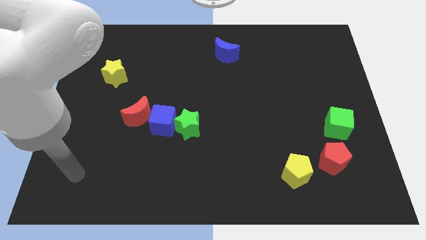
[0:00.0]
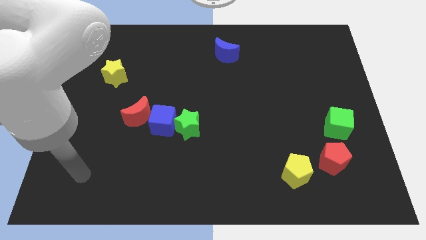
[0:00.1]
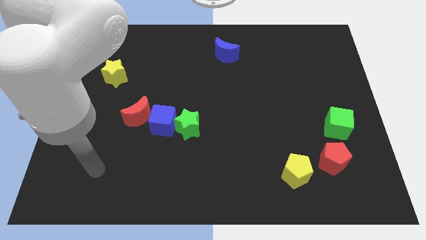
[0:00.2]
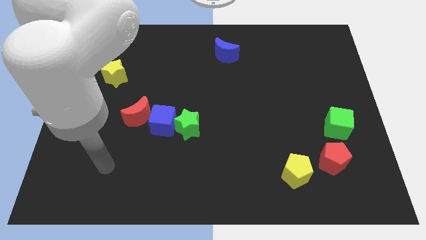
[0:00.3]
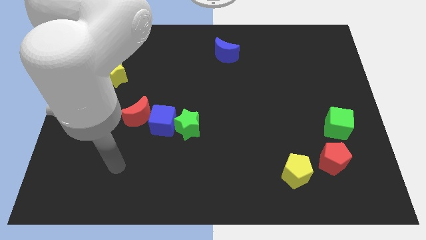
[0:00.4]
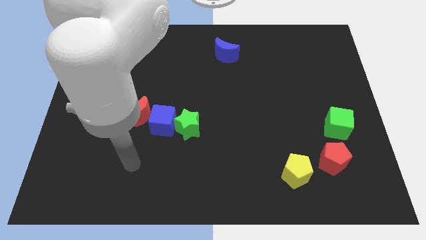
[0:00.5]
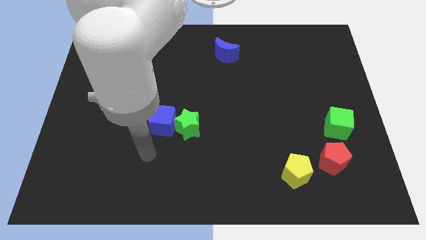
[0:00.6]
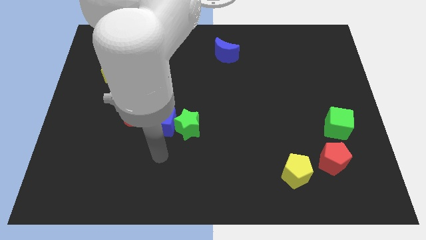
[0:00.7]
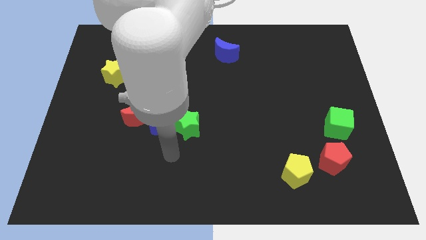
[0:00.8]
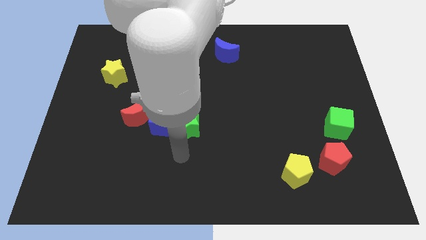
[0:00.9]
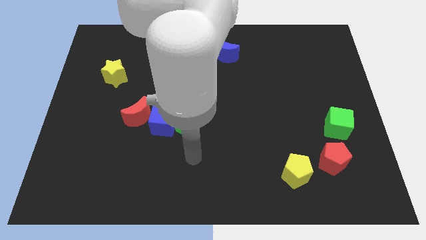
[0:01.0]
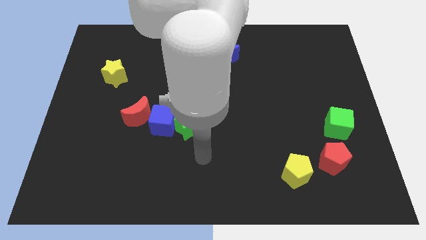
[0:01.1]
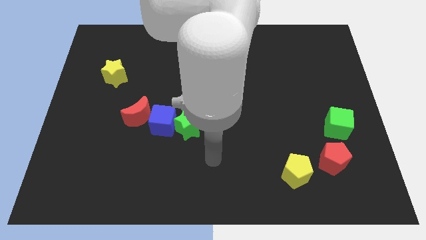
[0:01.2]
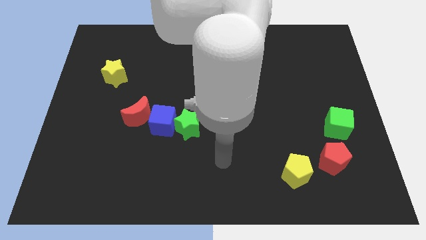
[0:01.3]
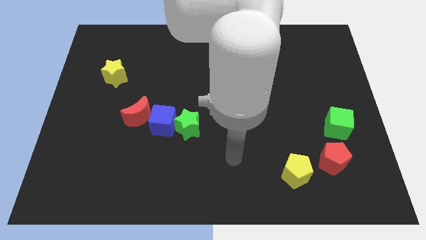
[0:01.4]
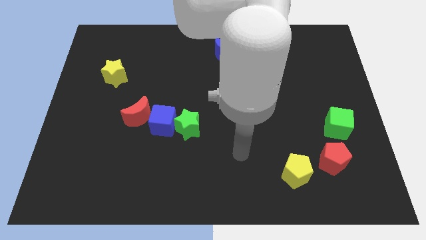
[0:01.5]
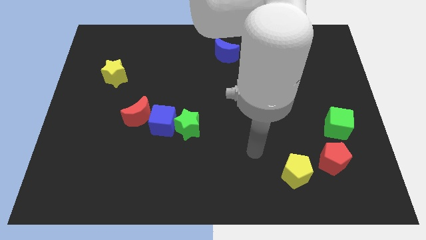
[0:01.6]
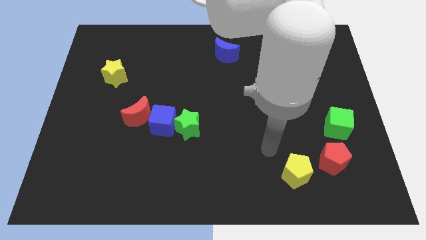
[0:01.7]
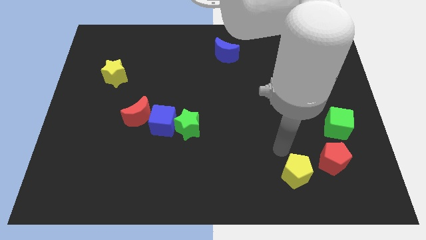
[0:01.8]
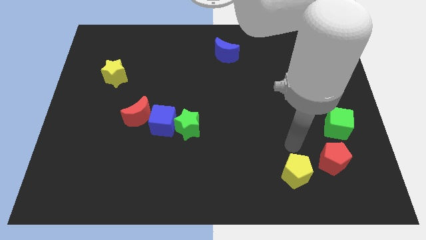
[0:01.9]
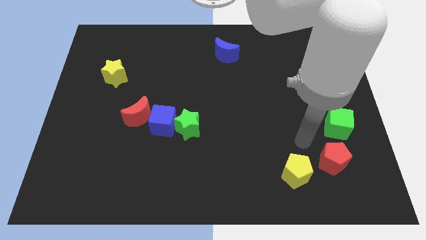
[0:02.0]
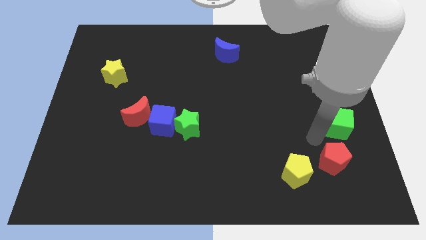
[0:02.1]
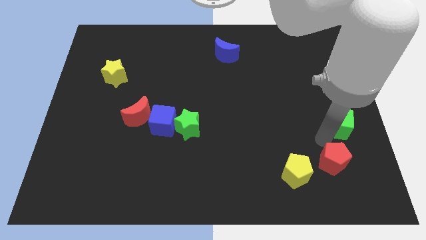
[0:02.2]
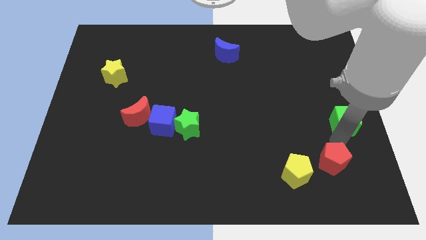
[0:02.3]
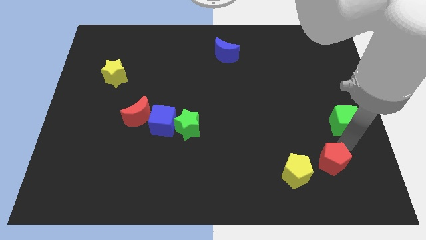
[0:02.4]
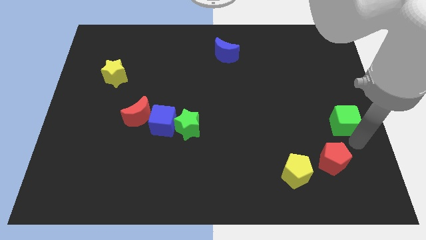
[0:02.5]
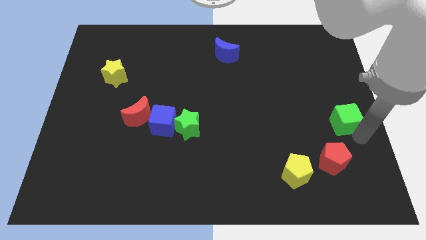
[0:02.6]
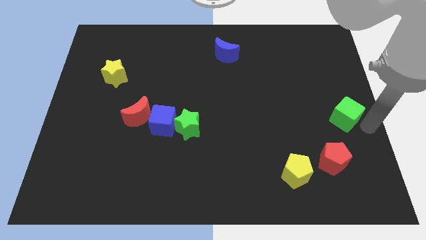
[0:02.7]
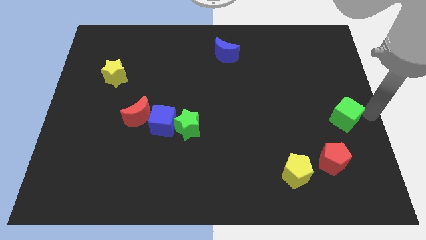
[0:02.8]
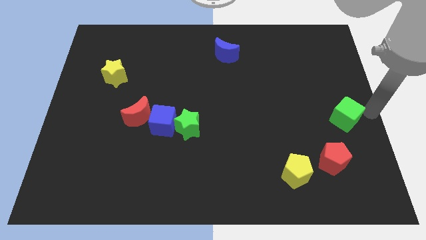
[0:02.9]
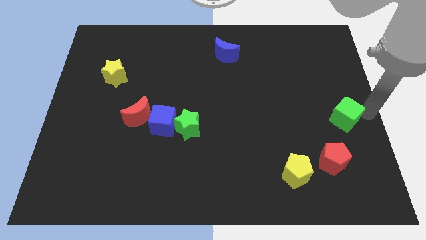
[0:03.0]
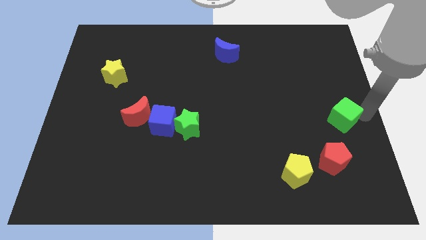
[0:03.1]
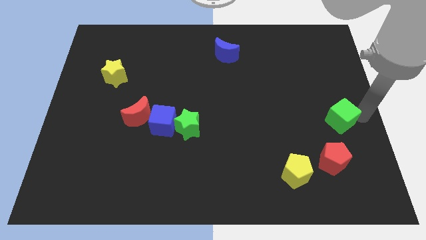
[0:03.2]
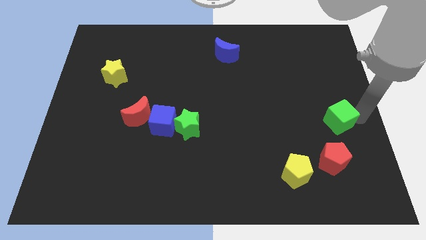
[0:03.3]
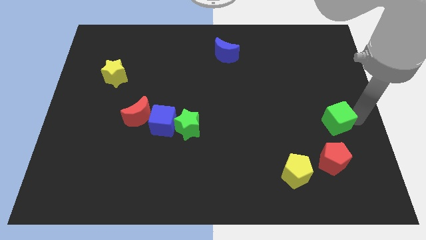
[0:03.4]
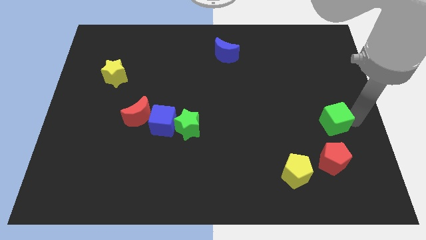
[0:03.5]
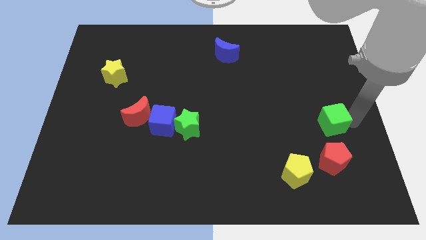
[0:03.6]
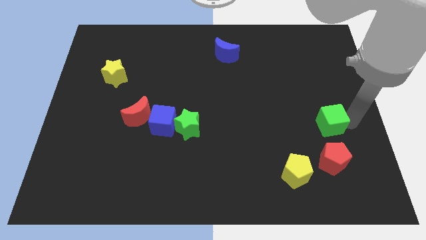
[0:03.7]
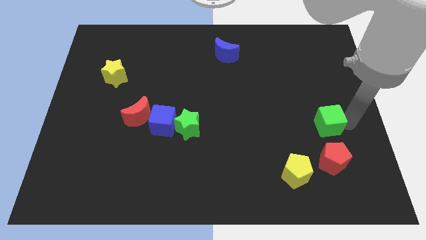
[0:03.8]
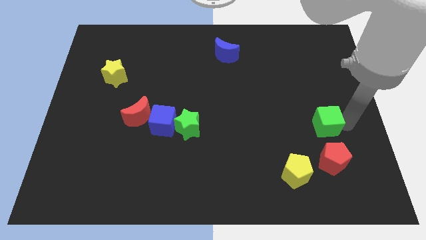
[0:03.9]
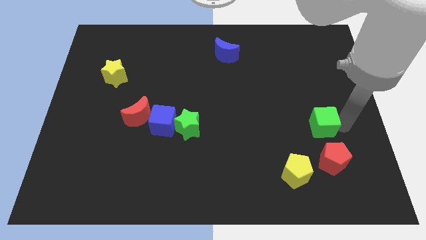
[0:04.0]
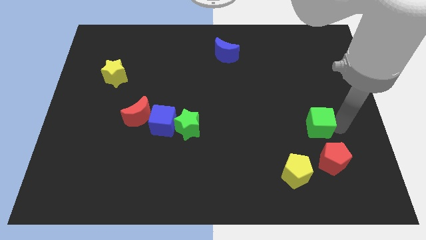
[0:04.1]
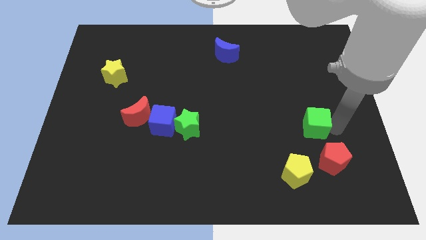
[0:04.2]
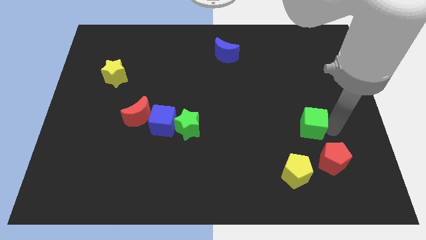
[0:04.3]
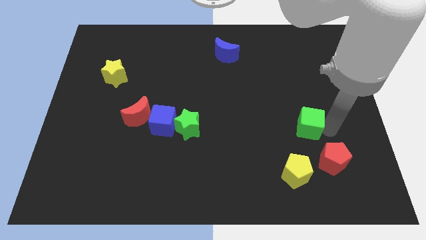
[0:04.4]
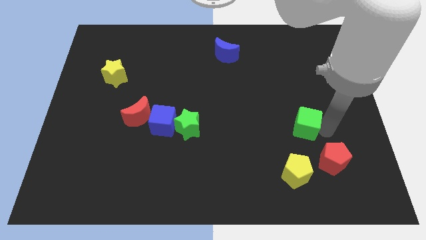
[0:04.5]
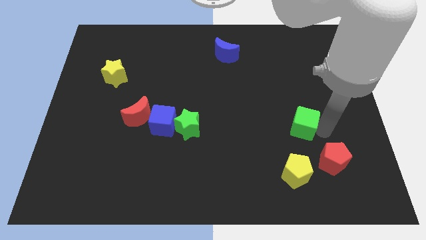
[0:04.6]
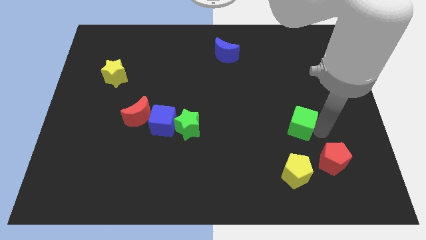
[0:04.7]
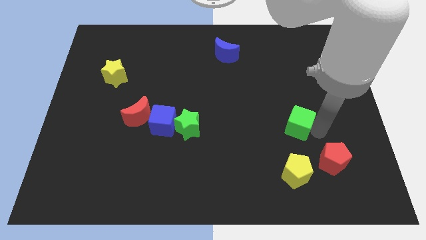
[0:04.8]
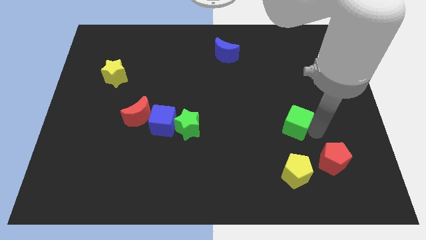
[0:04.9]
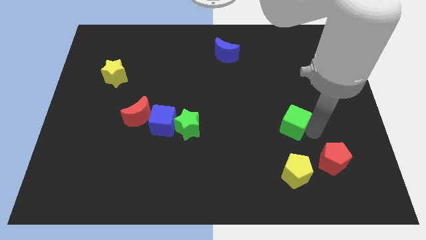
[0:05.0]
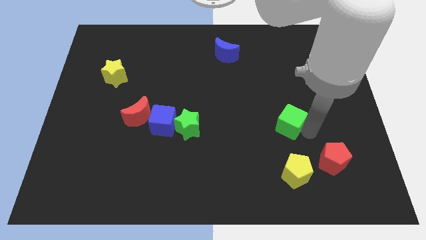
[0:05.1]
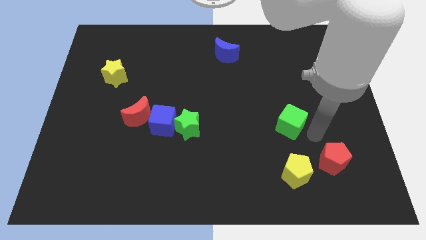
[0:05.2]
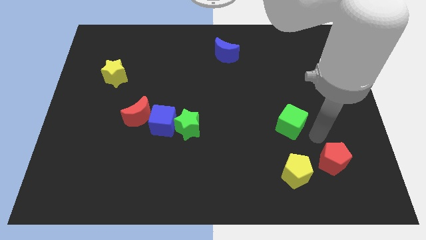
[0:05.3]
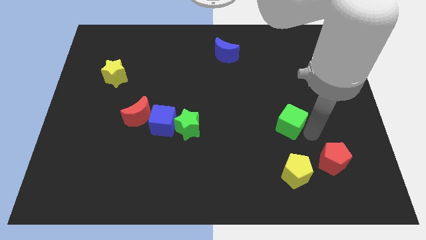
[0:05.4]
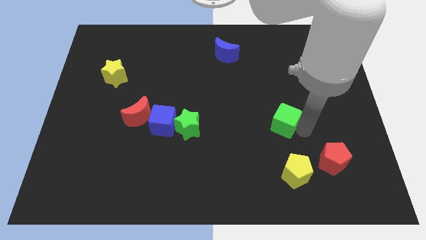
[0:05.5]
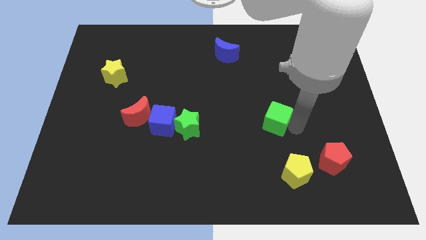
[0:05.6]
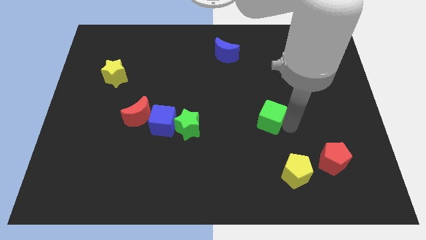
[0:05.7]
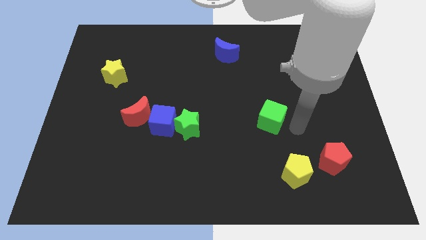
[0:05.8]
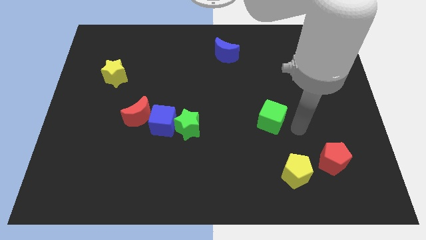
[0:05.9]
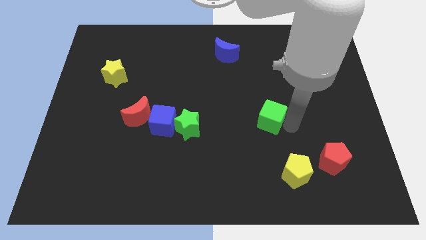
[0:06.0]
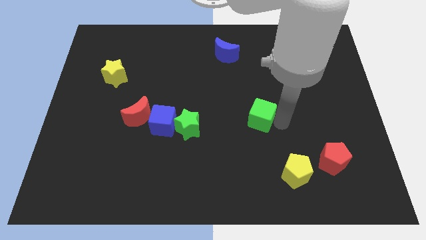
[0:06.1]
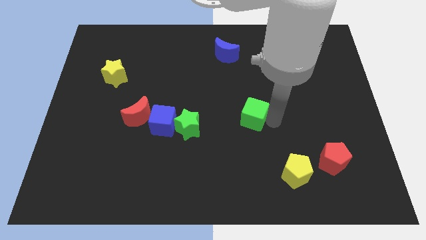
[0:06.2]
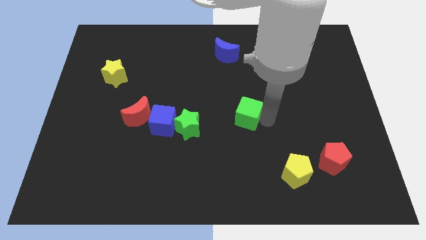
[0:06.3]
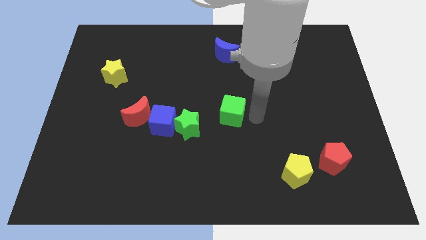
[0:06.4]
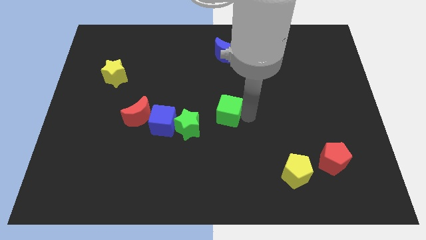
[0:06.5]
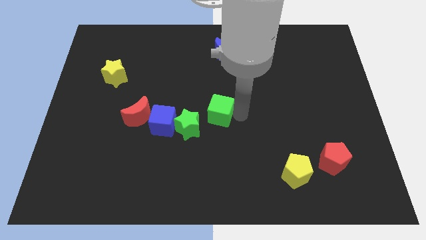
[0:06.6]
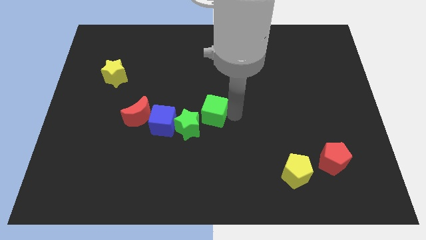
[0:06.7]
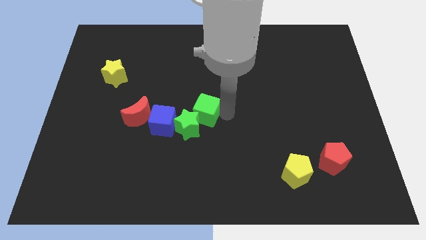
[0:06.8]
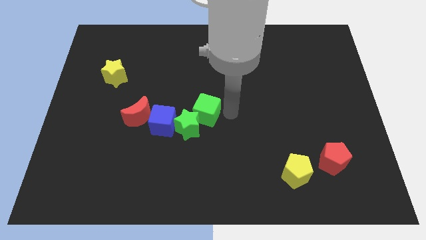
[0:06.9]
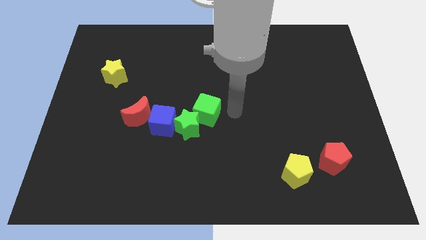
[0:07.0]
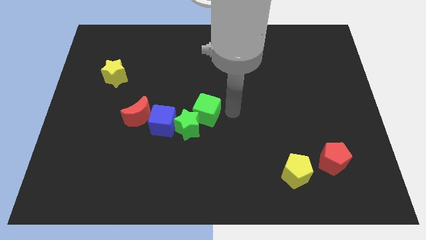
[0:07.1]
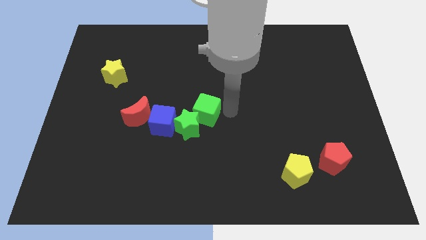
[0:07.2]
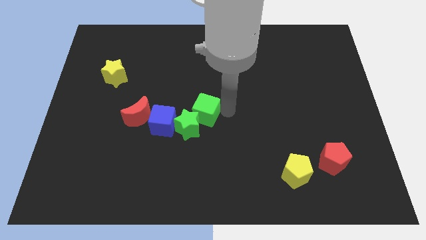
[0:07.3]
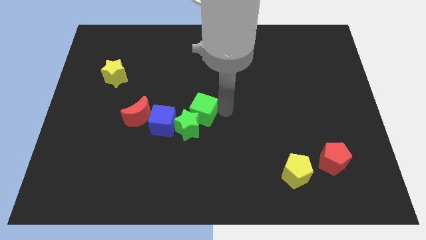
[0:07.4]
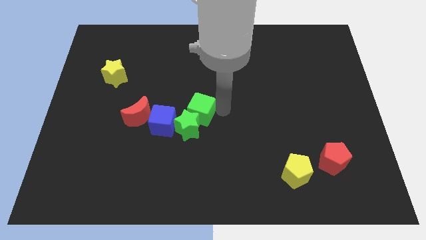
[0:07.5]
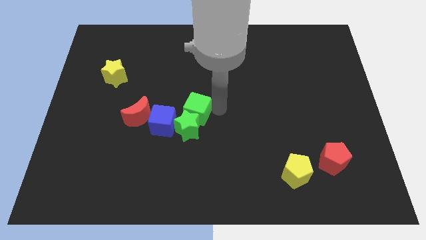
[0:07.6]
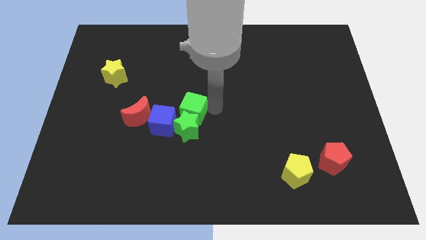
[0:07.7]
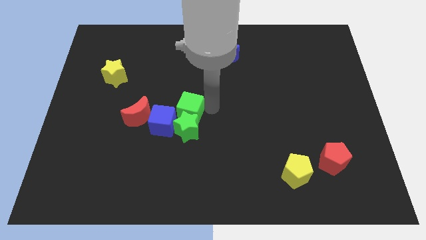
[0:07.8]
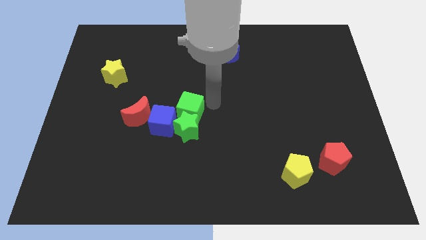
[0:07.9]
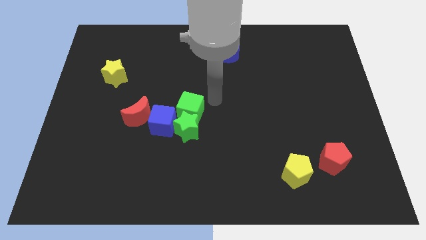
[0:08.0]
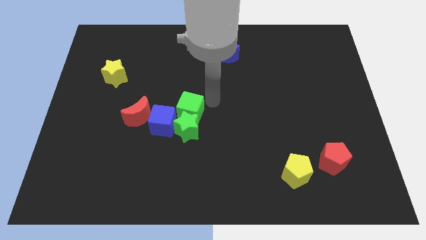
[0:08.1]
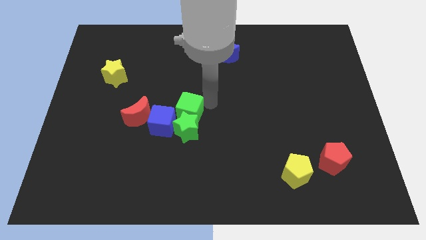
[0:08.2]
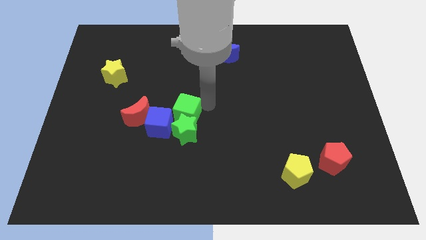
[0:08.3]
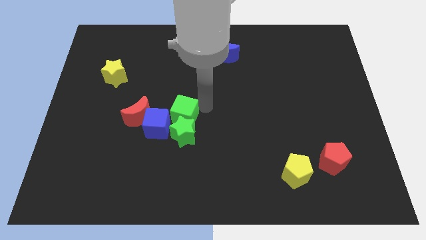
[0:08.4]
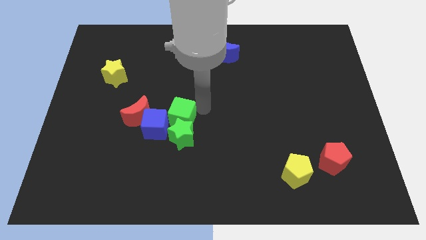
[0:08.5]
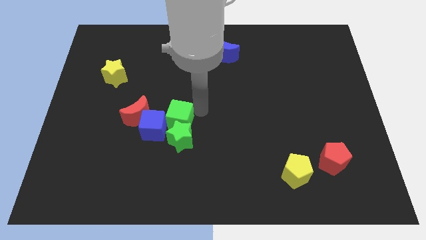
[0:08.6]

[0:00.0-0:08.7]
put the green cube next to the blue cube
